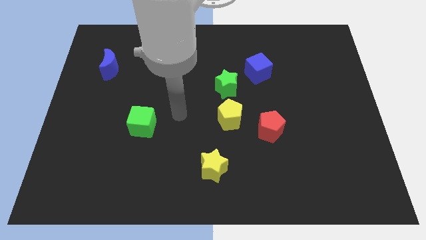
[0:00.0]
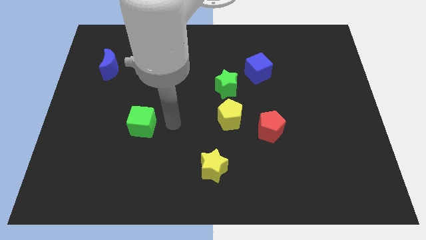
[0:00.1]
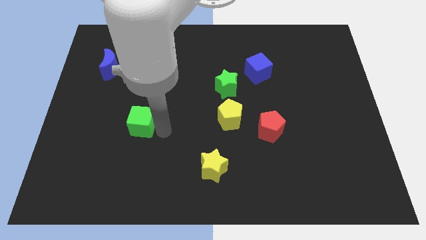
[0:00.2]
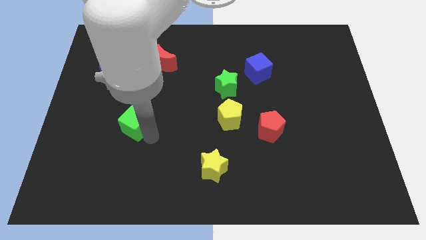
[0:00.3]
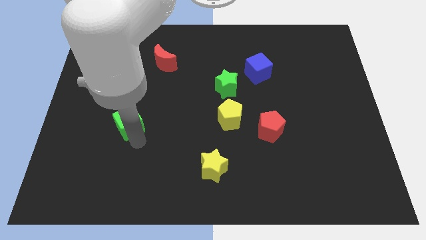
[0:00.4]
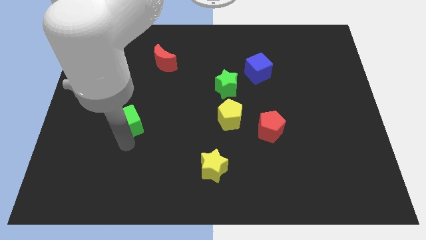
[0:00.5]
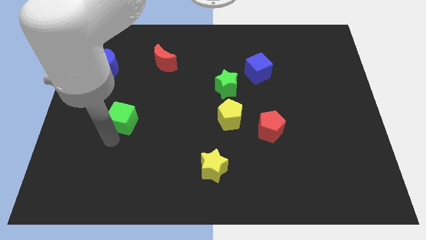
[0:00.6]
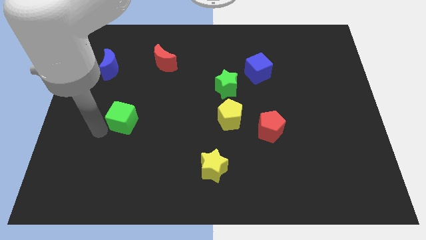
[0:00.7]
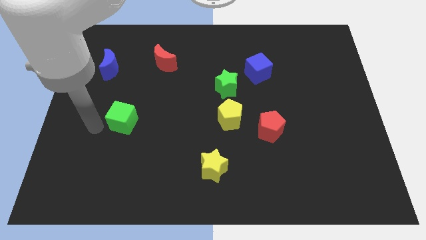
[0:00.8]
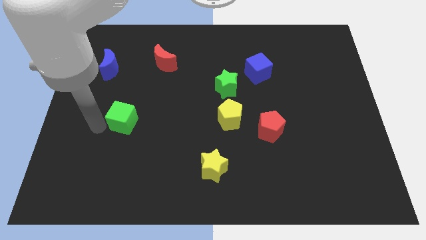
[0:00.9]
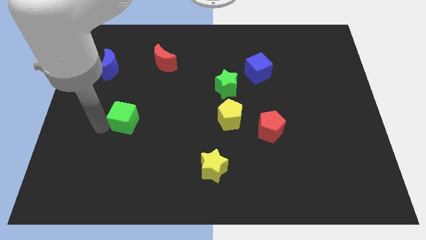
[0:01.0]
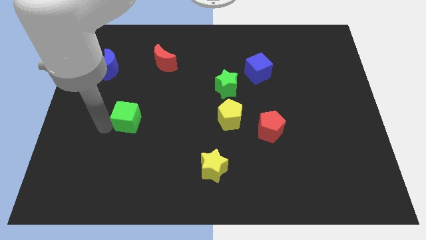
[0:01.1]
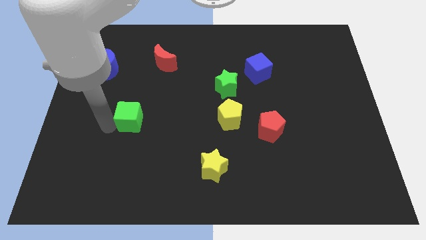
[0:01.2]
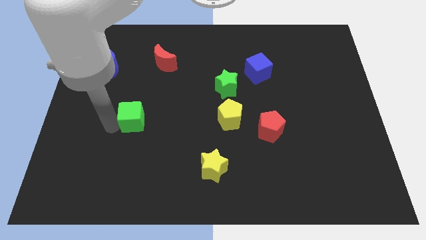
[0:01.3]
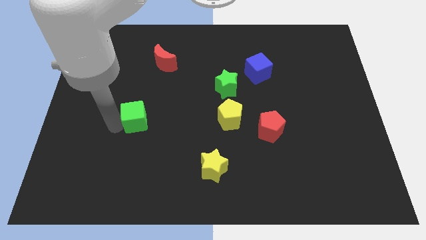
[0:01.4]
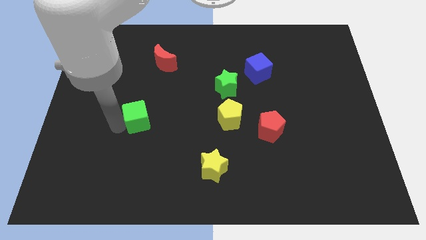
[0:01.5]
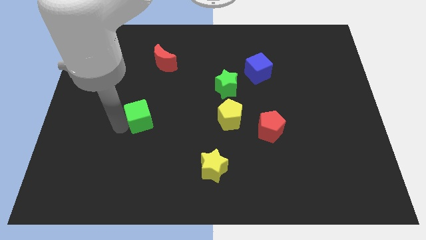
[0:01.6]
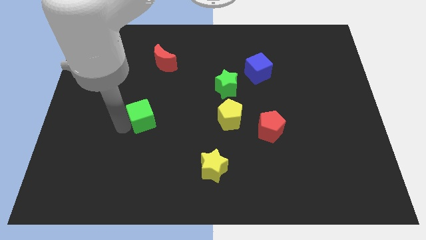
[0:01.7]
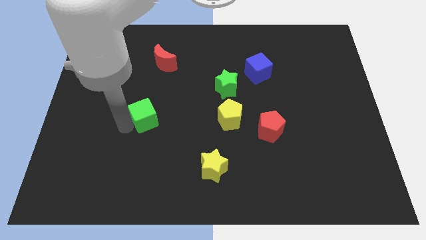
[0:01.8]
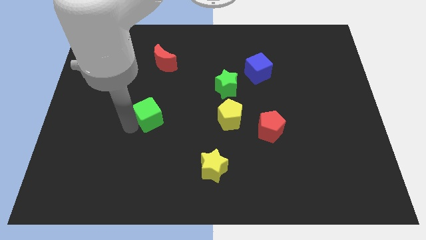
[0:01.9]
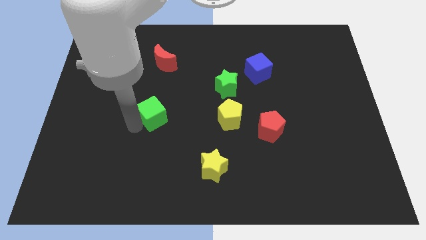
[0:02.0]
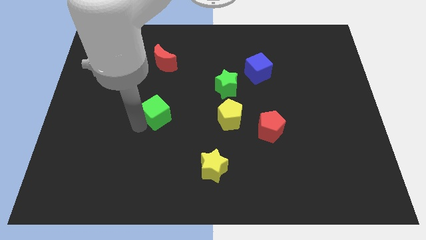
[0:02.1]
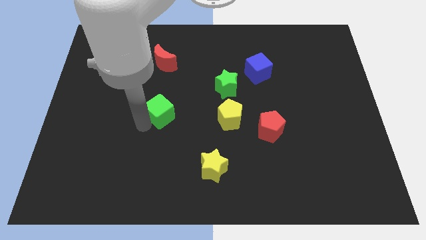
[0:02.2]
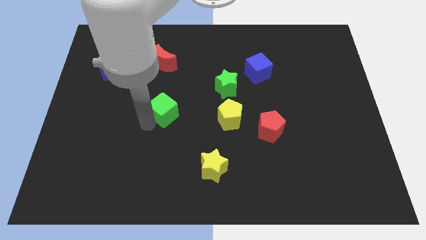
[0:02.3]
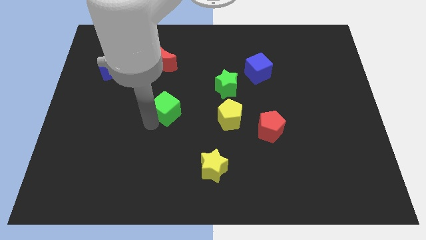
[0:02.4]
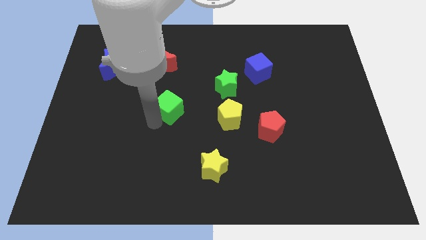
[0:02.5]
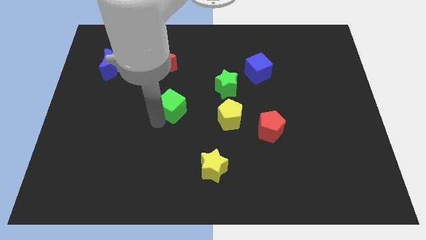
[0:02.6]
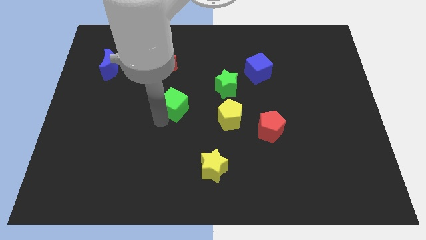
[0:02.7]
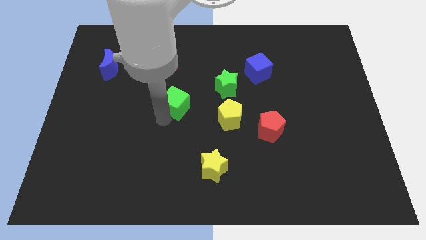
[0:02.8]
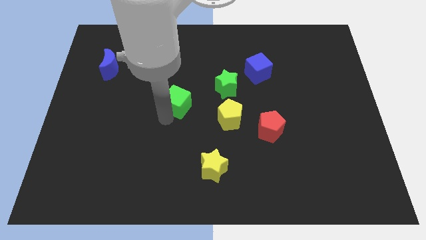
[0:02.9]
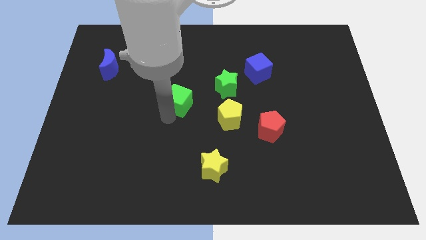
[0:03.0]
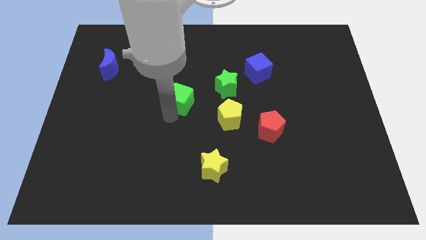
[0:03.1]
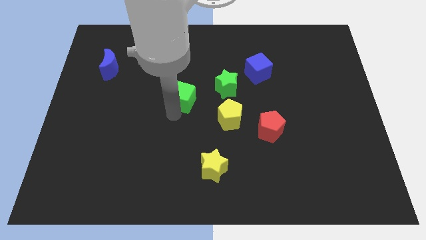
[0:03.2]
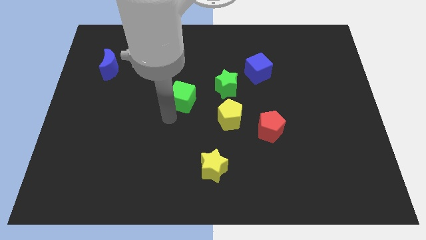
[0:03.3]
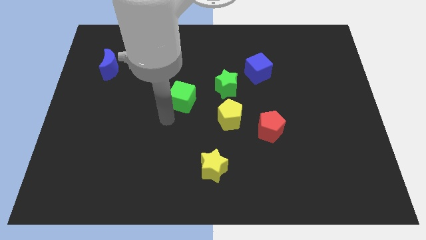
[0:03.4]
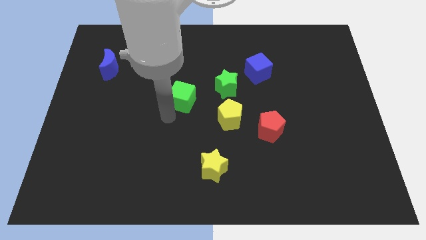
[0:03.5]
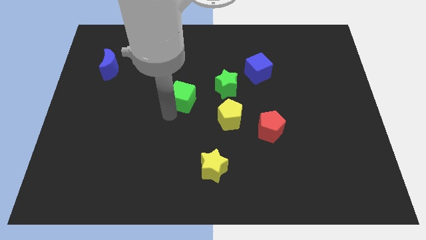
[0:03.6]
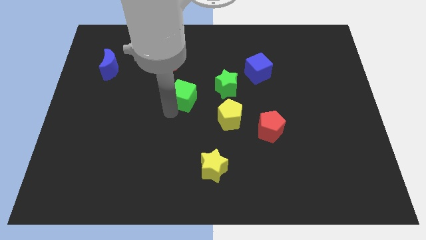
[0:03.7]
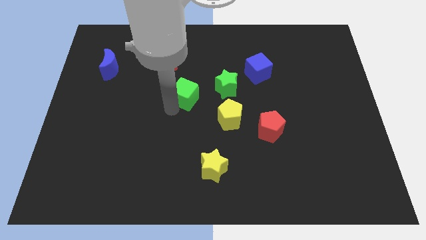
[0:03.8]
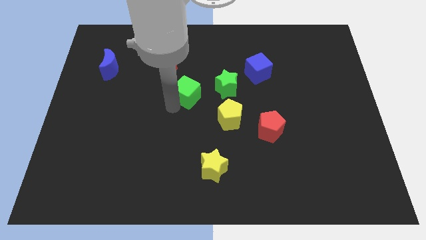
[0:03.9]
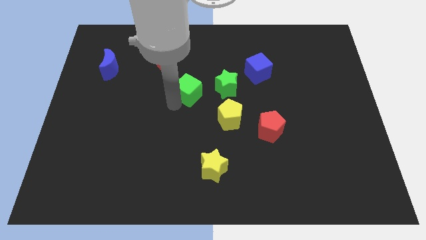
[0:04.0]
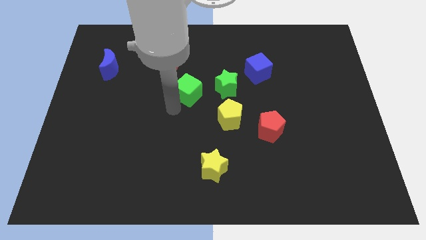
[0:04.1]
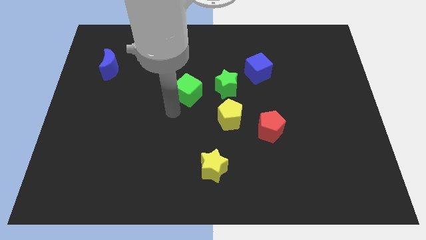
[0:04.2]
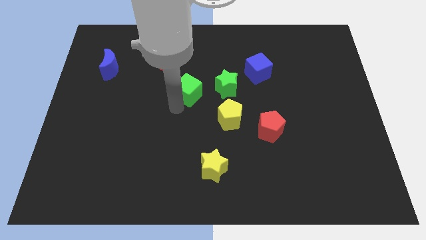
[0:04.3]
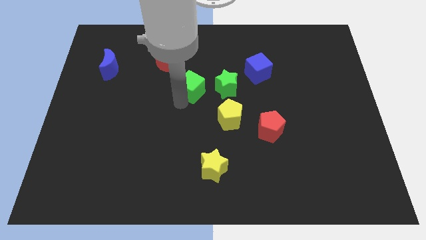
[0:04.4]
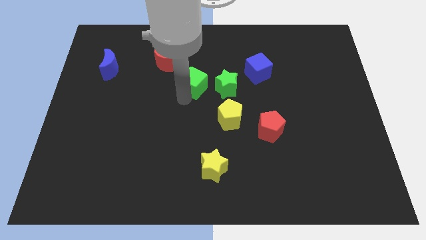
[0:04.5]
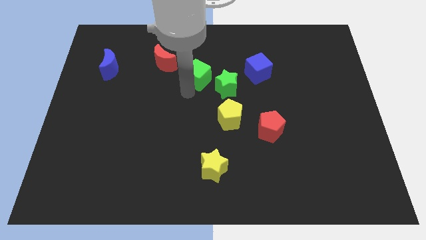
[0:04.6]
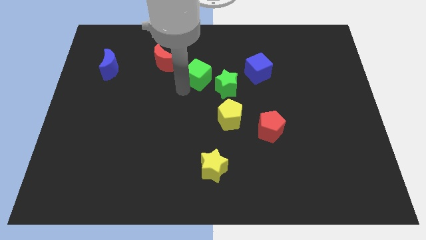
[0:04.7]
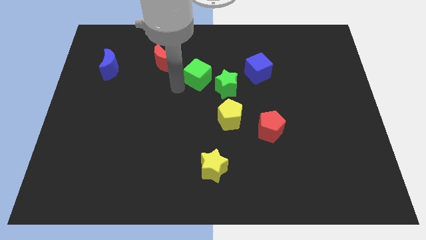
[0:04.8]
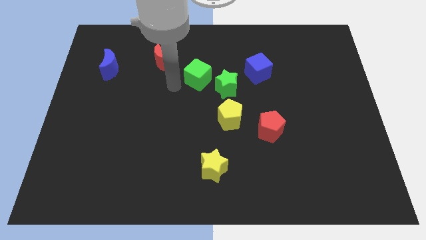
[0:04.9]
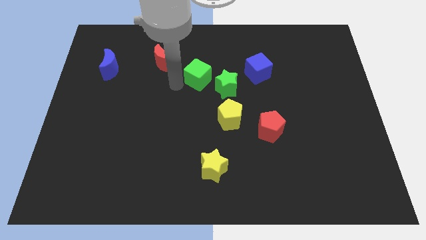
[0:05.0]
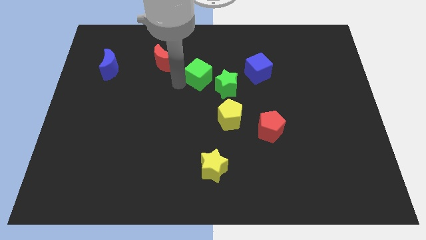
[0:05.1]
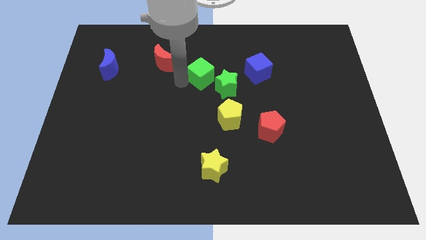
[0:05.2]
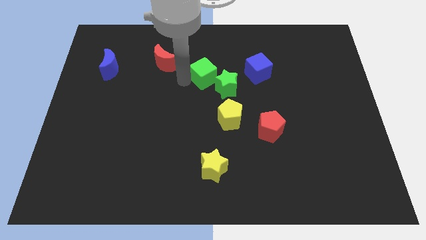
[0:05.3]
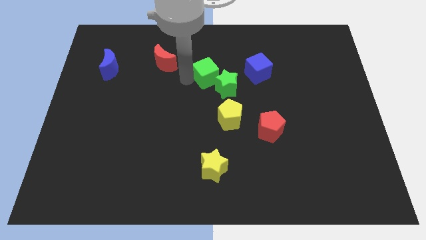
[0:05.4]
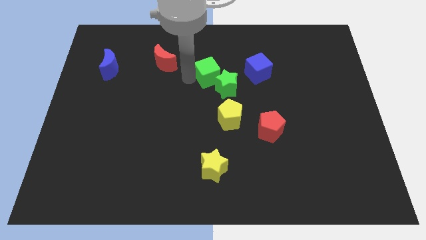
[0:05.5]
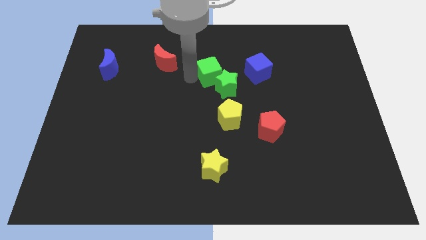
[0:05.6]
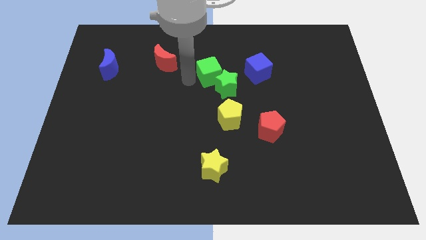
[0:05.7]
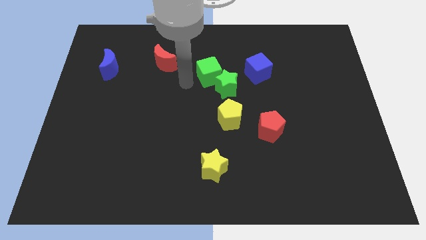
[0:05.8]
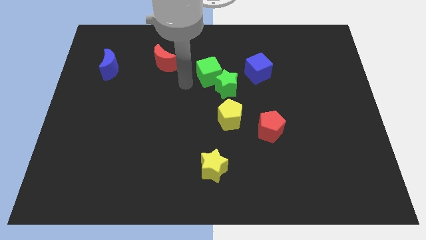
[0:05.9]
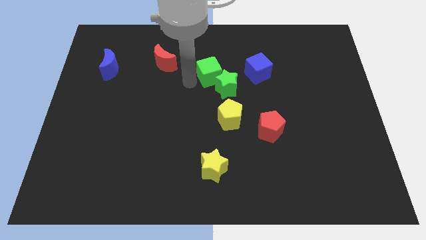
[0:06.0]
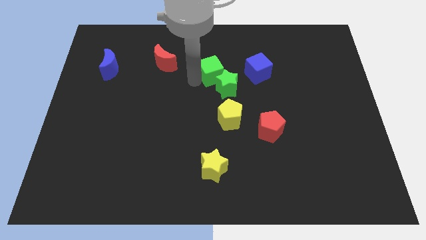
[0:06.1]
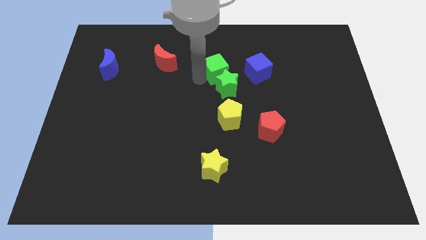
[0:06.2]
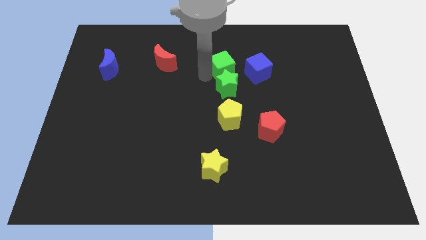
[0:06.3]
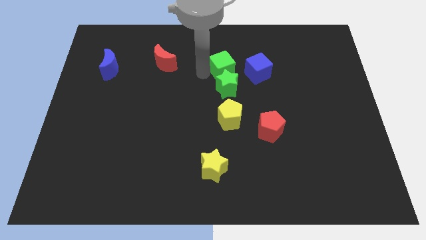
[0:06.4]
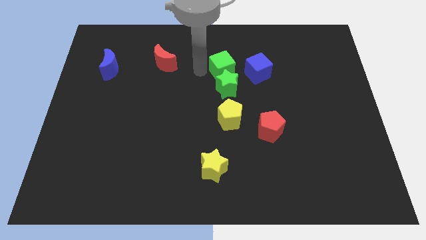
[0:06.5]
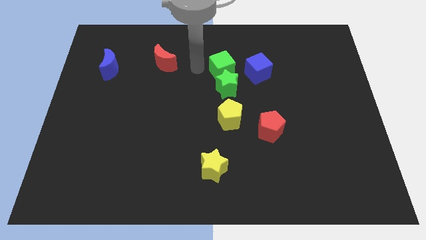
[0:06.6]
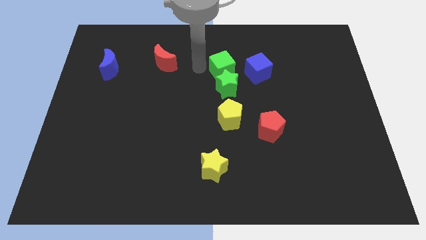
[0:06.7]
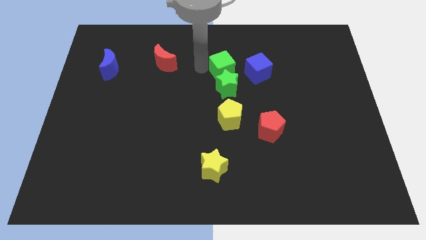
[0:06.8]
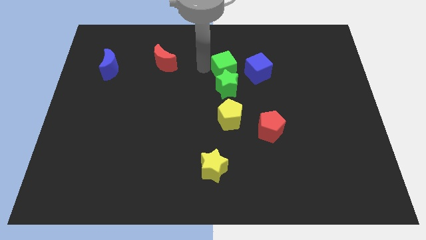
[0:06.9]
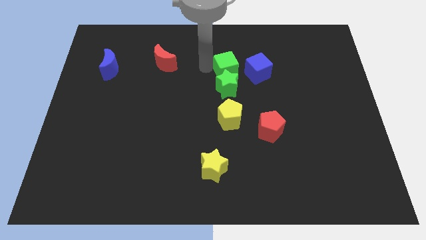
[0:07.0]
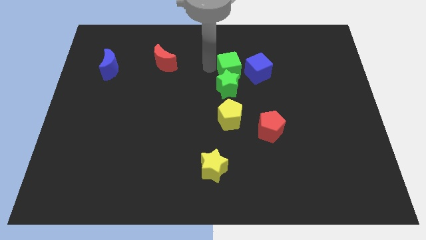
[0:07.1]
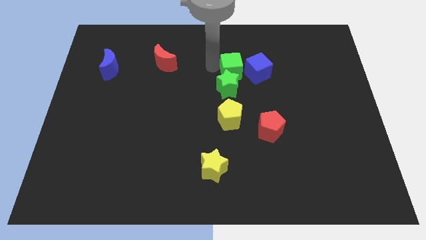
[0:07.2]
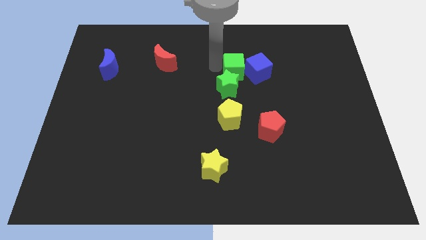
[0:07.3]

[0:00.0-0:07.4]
push the green cube to the blue cube
